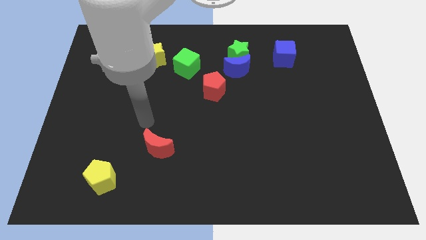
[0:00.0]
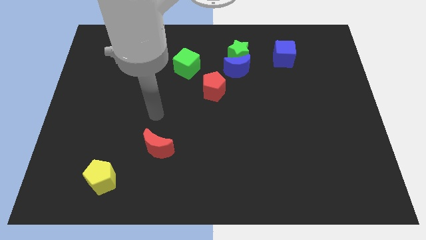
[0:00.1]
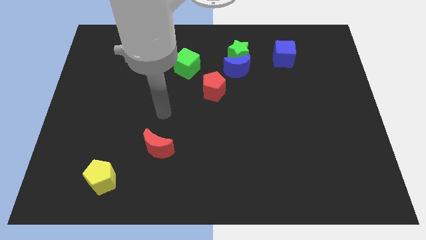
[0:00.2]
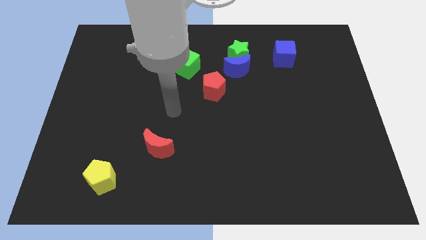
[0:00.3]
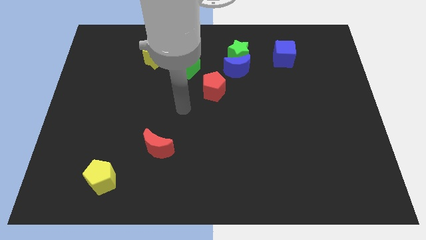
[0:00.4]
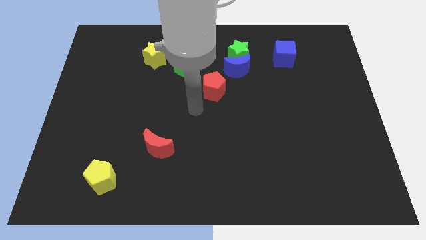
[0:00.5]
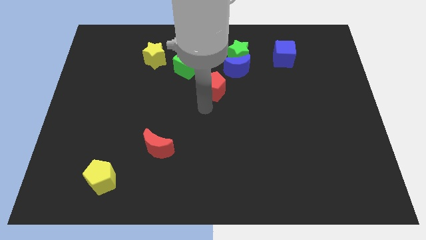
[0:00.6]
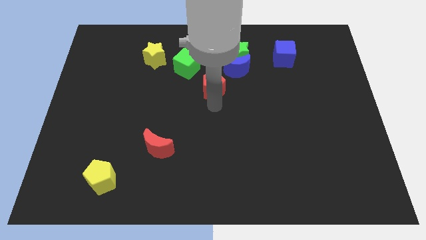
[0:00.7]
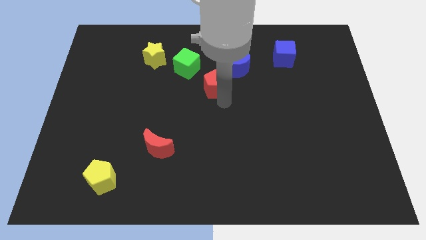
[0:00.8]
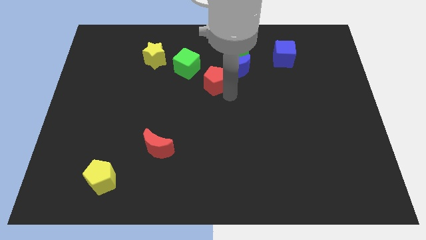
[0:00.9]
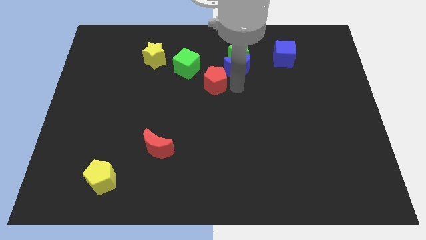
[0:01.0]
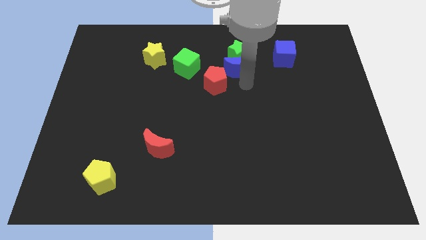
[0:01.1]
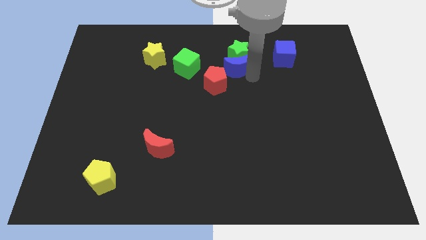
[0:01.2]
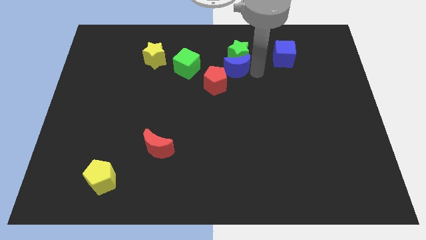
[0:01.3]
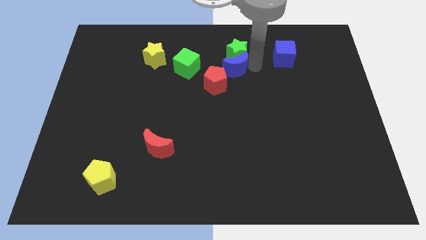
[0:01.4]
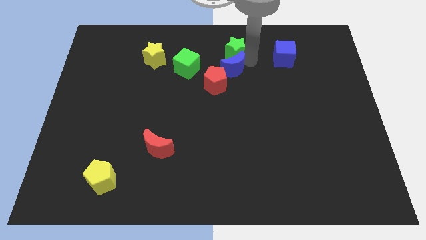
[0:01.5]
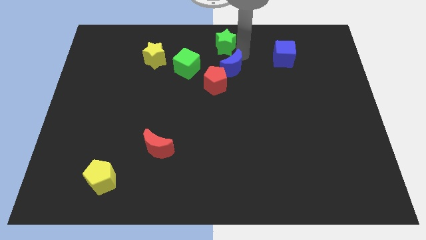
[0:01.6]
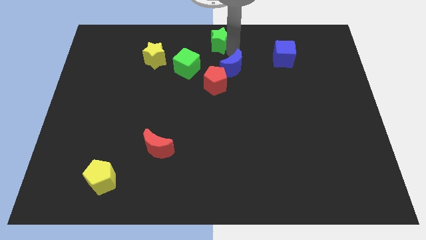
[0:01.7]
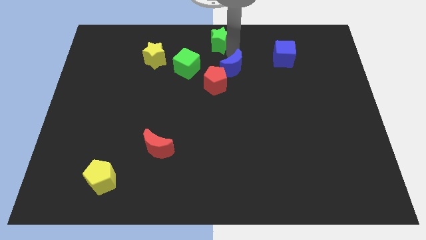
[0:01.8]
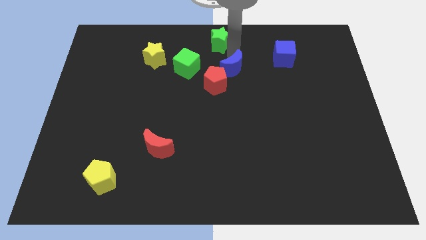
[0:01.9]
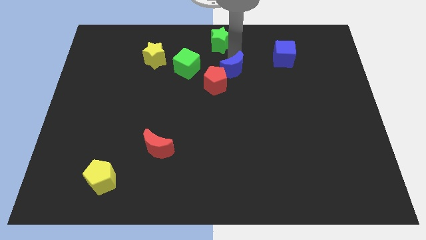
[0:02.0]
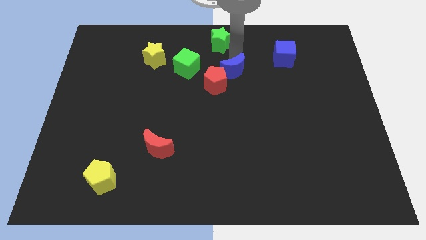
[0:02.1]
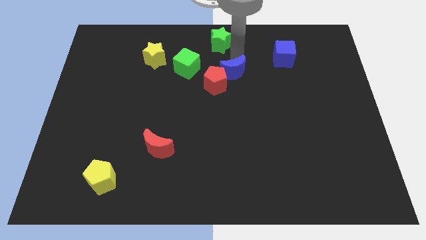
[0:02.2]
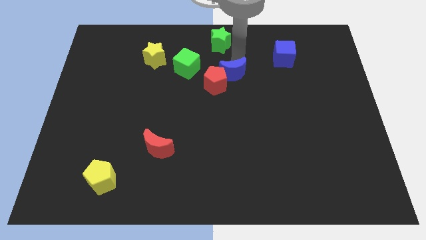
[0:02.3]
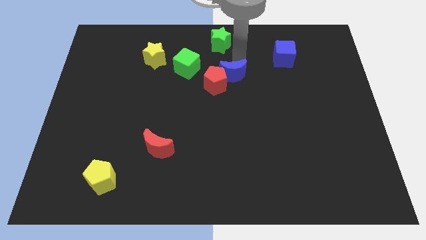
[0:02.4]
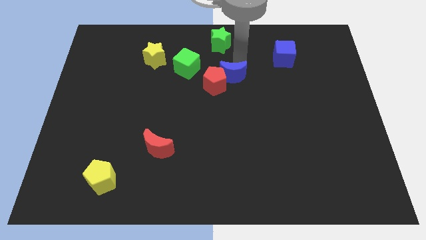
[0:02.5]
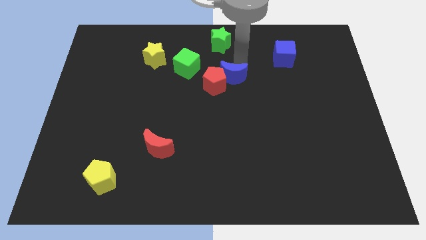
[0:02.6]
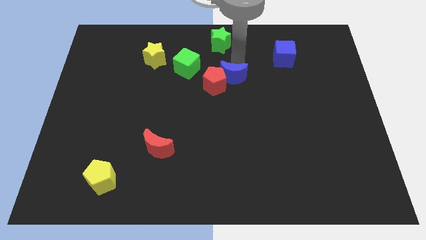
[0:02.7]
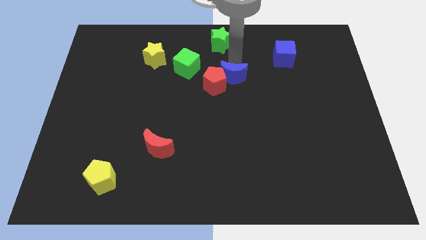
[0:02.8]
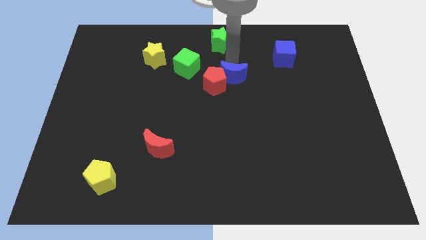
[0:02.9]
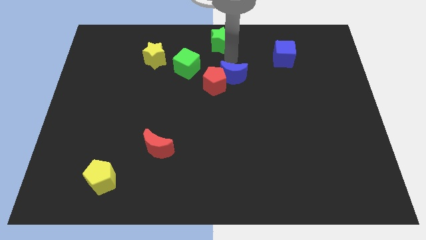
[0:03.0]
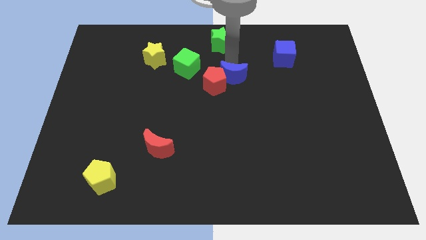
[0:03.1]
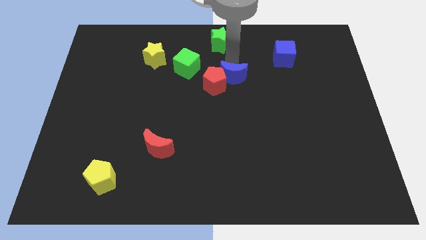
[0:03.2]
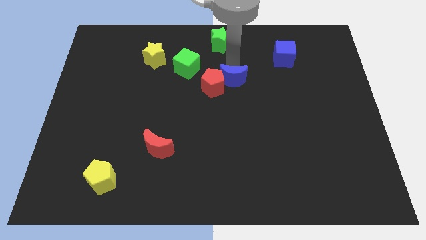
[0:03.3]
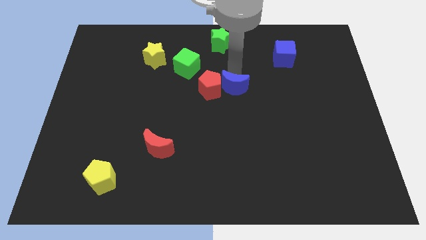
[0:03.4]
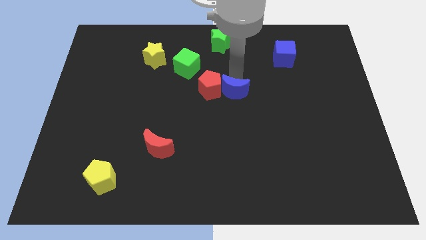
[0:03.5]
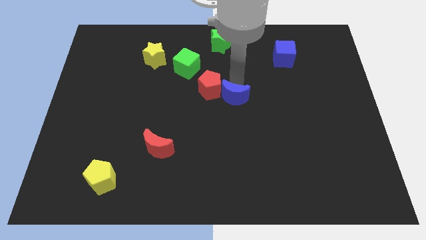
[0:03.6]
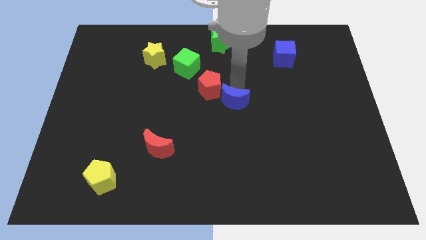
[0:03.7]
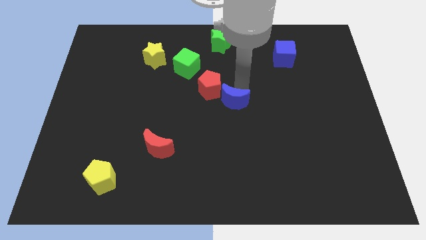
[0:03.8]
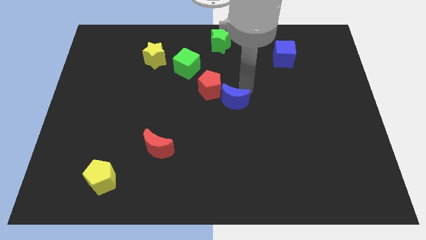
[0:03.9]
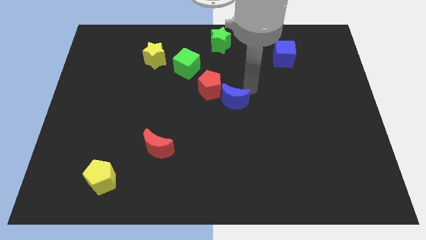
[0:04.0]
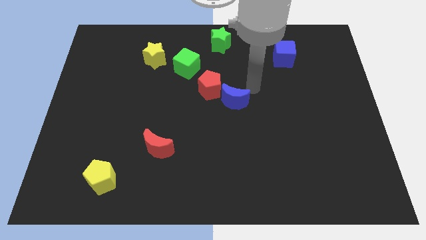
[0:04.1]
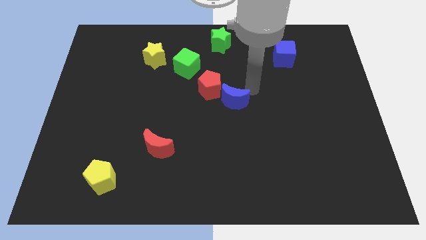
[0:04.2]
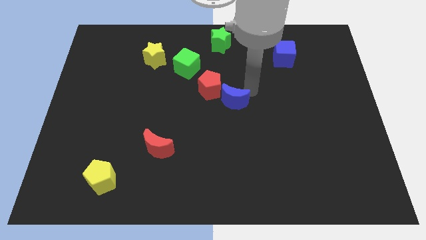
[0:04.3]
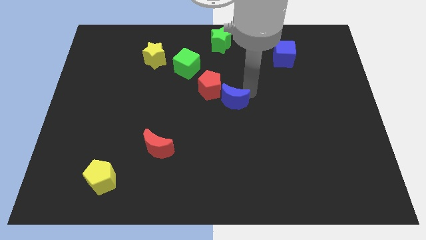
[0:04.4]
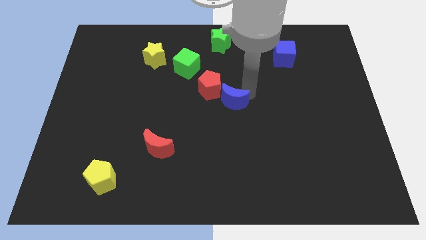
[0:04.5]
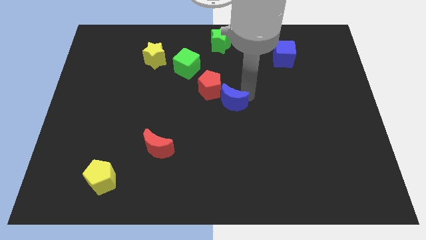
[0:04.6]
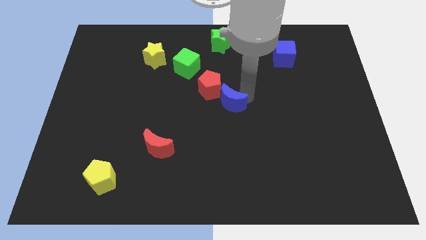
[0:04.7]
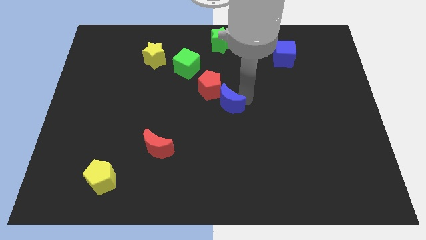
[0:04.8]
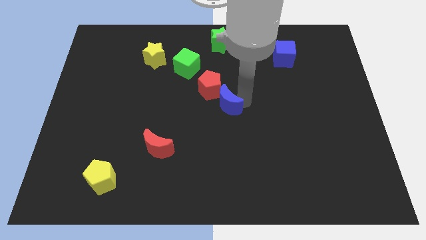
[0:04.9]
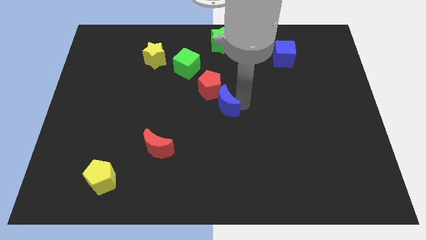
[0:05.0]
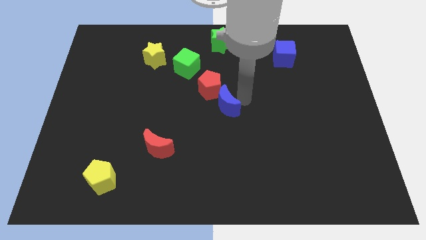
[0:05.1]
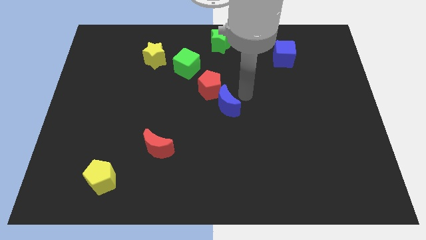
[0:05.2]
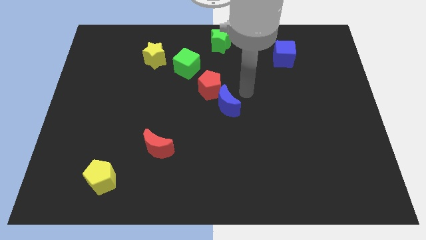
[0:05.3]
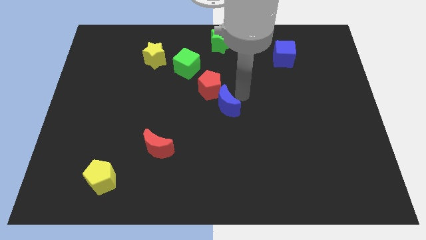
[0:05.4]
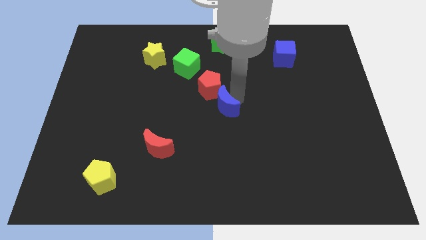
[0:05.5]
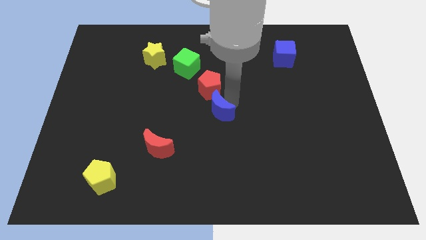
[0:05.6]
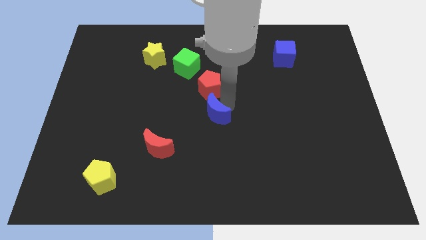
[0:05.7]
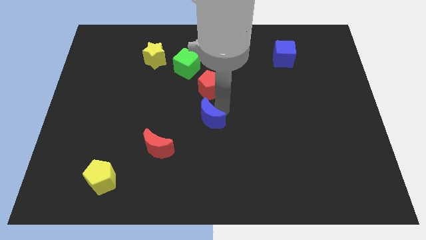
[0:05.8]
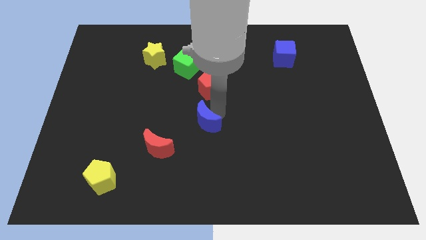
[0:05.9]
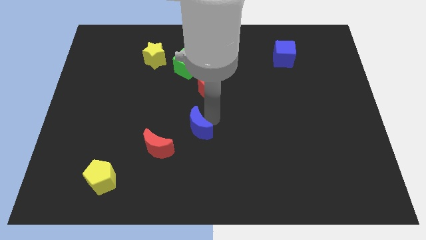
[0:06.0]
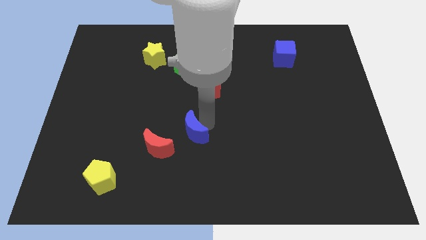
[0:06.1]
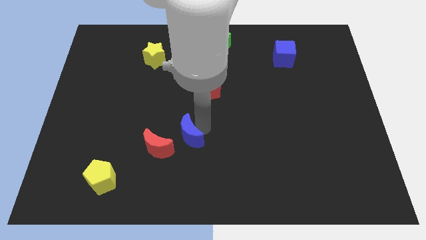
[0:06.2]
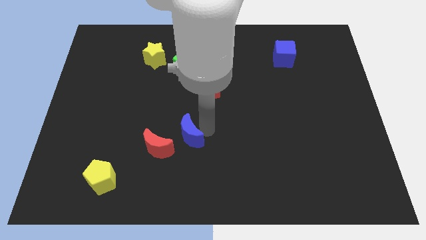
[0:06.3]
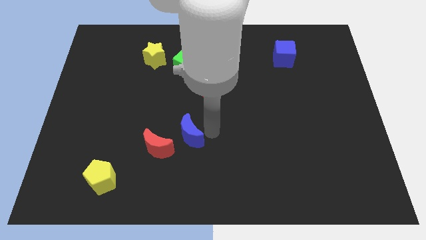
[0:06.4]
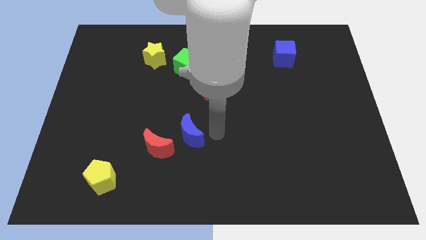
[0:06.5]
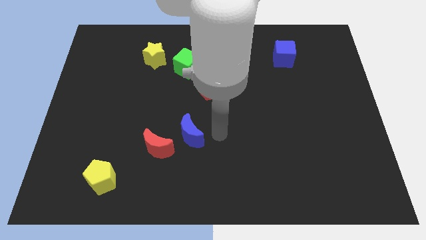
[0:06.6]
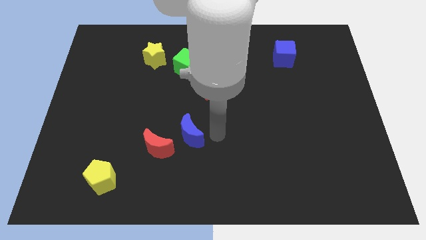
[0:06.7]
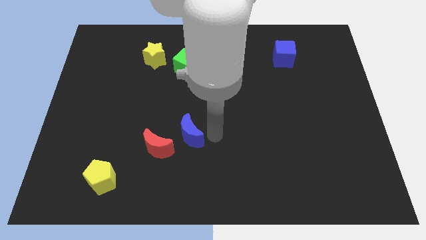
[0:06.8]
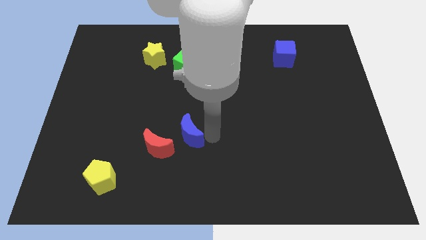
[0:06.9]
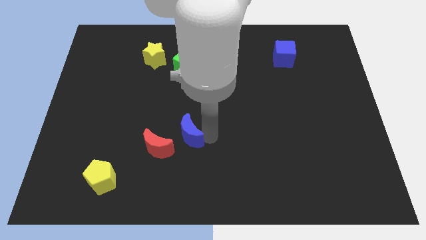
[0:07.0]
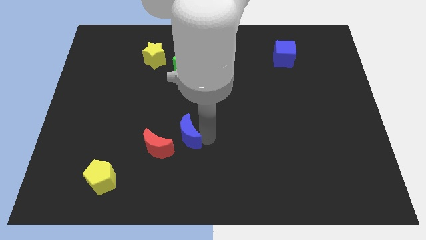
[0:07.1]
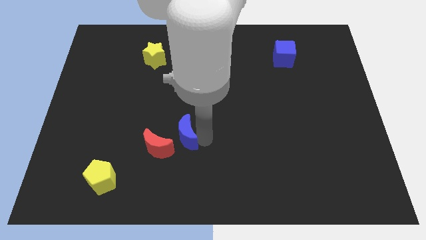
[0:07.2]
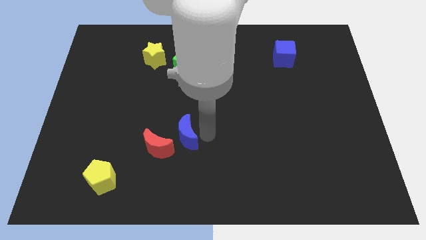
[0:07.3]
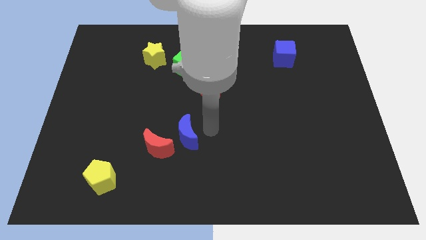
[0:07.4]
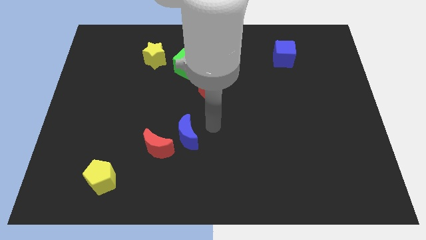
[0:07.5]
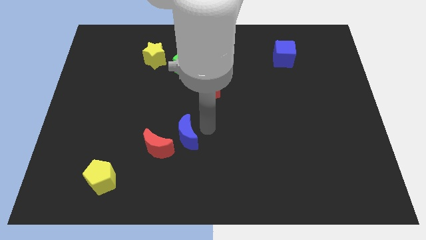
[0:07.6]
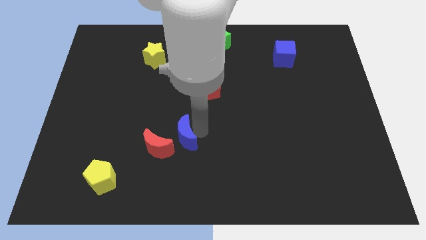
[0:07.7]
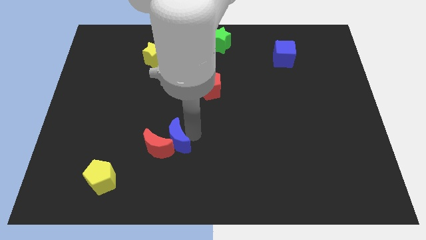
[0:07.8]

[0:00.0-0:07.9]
push the blue moon towards the red moon
